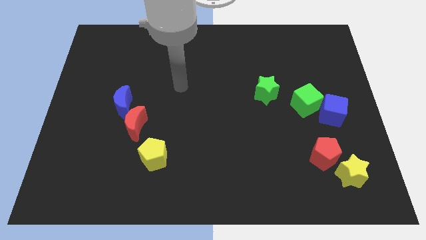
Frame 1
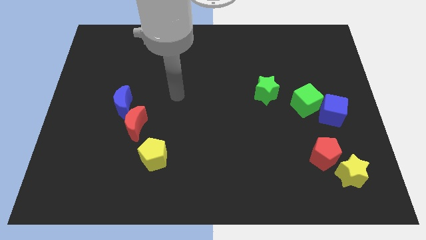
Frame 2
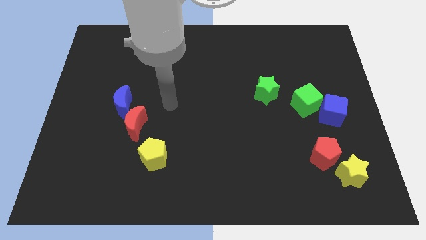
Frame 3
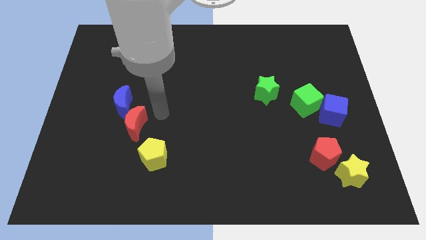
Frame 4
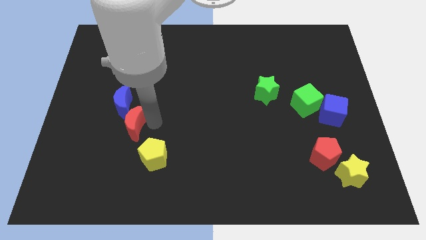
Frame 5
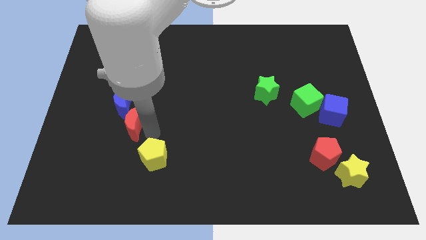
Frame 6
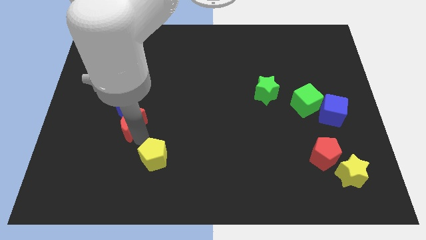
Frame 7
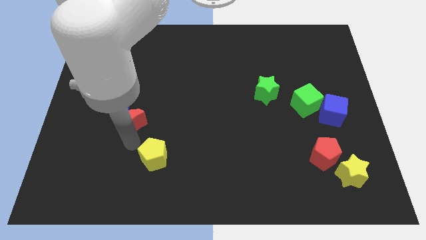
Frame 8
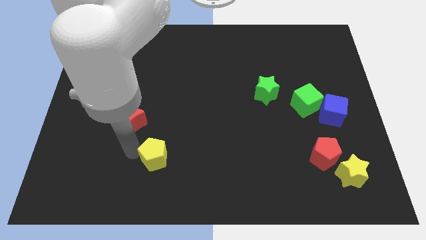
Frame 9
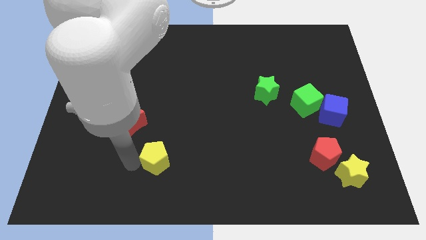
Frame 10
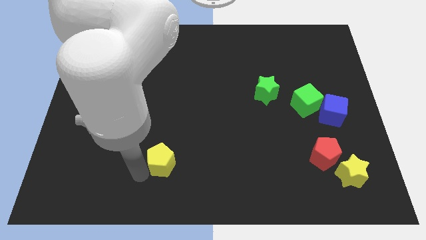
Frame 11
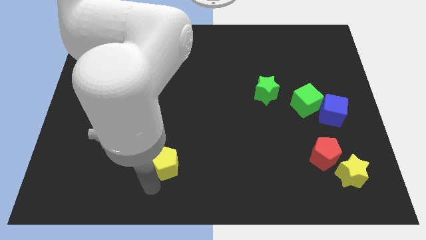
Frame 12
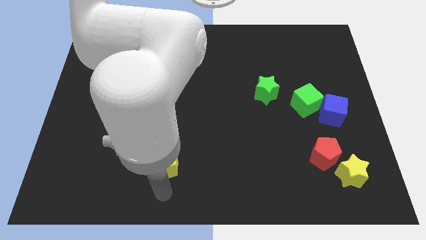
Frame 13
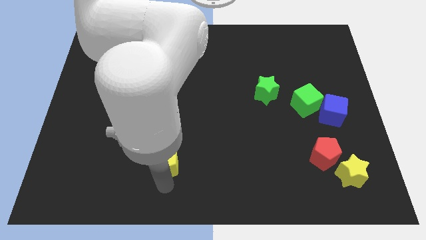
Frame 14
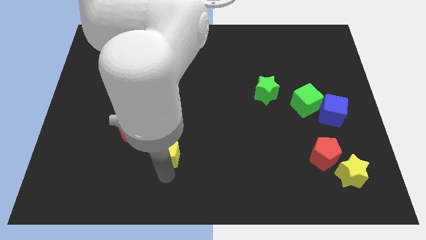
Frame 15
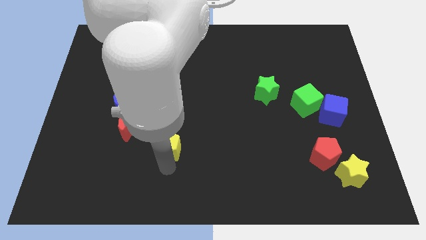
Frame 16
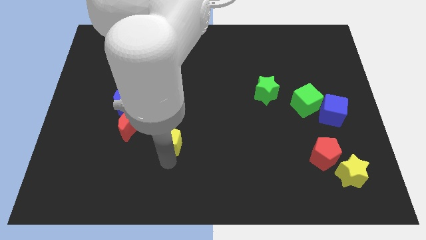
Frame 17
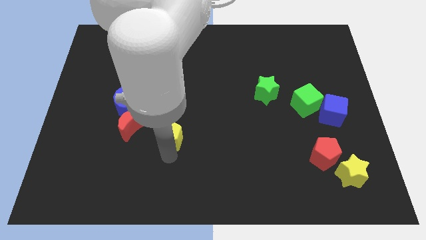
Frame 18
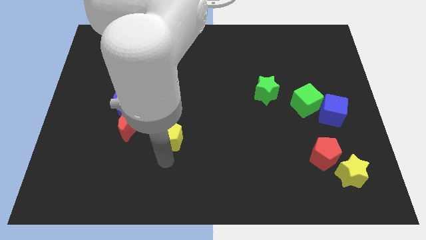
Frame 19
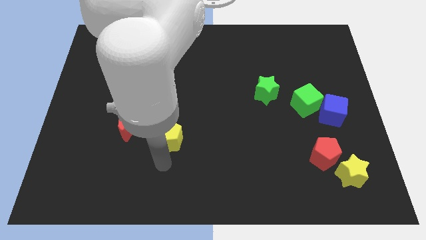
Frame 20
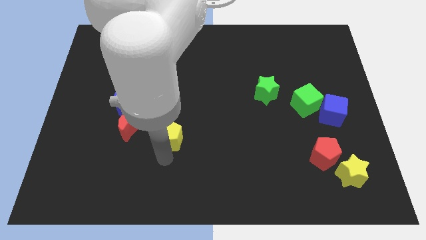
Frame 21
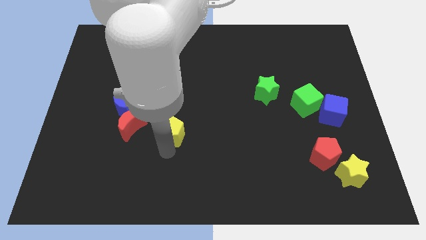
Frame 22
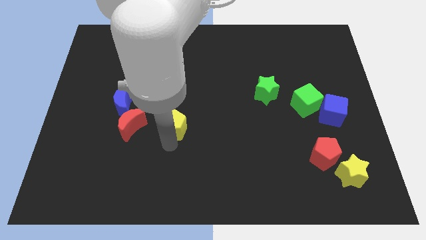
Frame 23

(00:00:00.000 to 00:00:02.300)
push the yellow pentagon slightly up

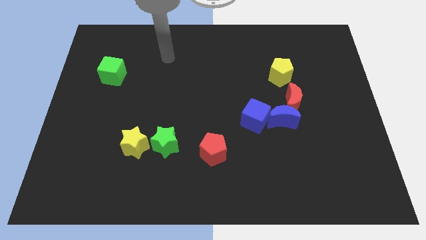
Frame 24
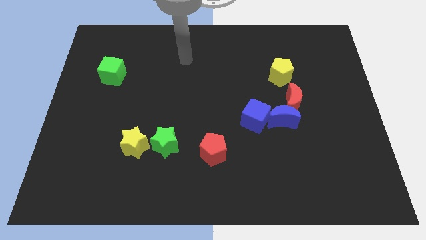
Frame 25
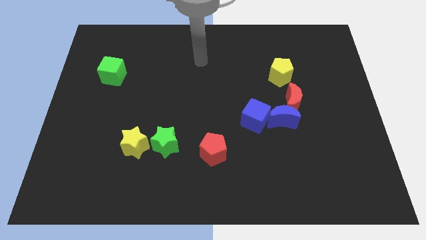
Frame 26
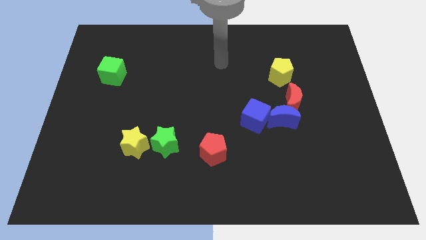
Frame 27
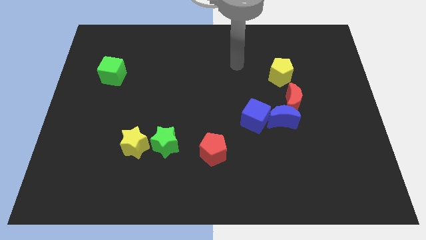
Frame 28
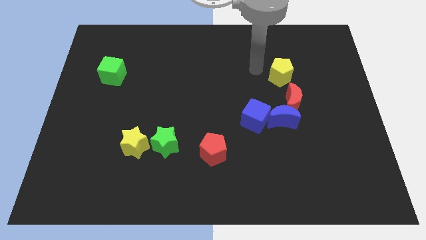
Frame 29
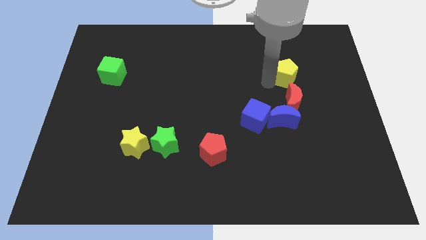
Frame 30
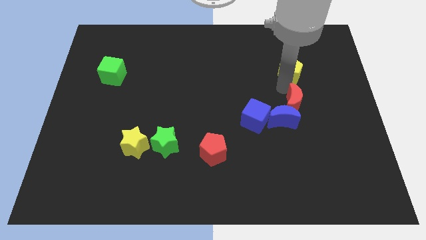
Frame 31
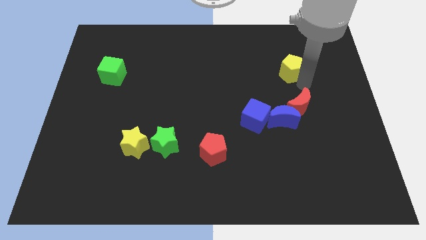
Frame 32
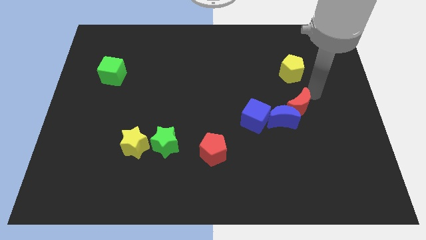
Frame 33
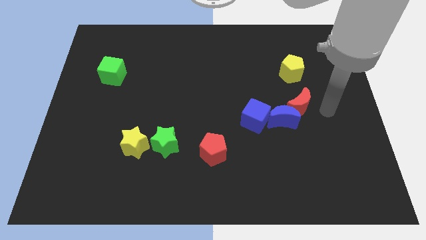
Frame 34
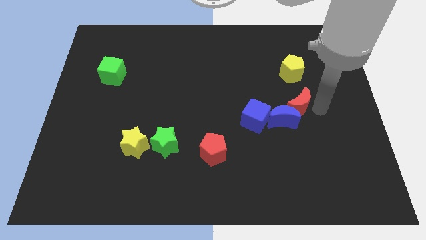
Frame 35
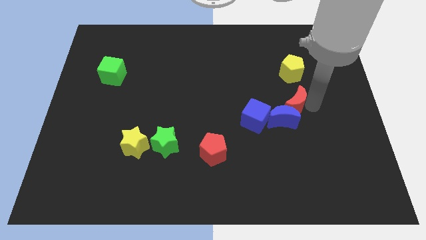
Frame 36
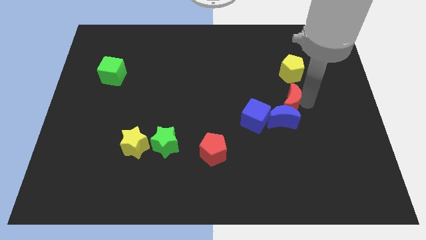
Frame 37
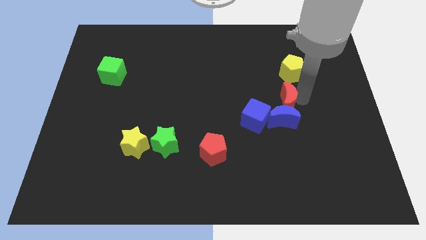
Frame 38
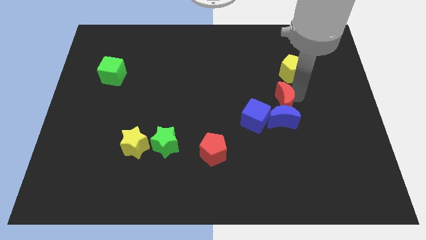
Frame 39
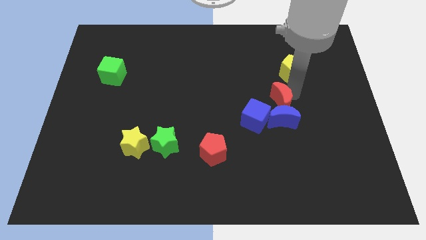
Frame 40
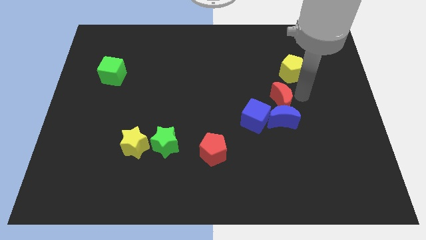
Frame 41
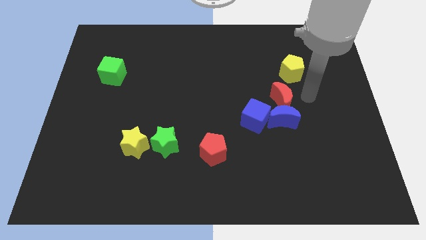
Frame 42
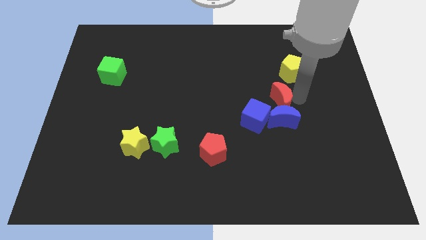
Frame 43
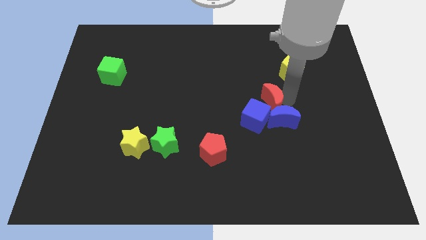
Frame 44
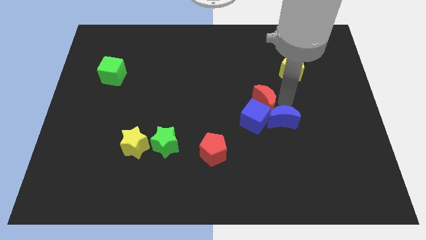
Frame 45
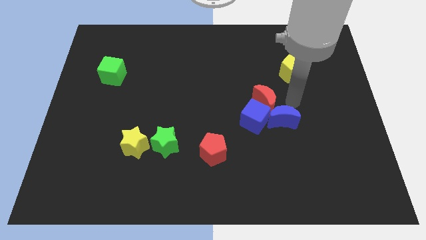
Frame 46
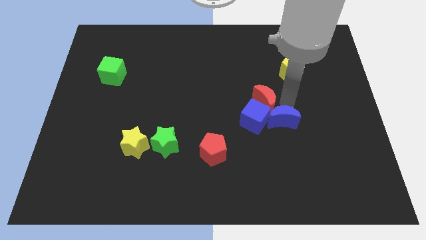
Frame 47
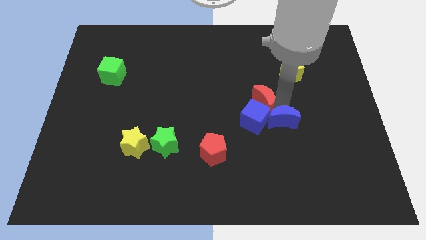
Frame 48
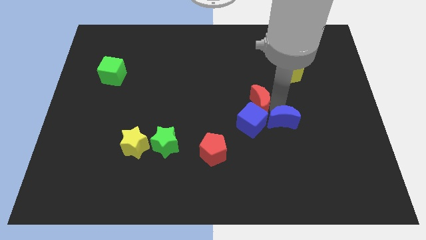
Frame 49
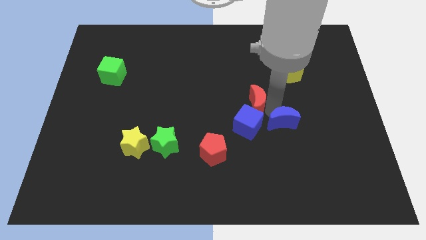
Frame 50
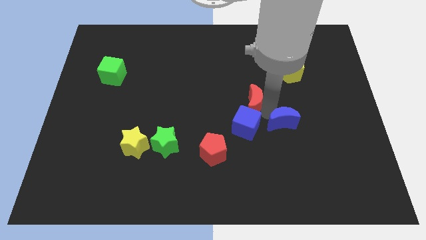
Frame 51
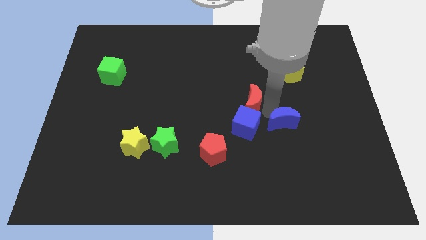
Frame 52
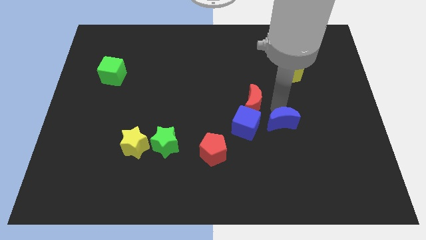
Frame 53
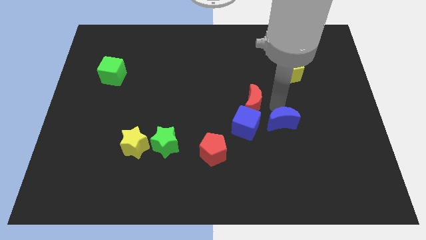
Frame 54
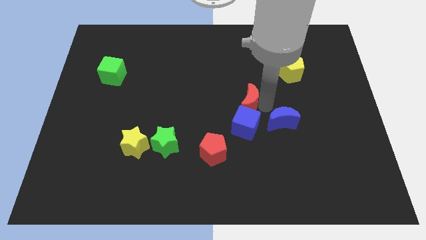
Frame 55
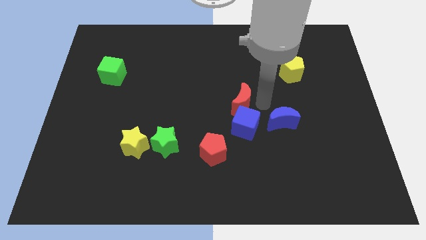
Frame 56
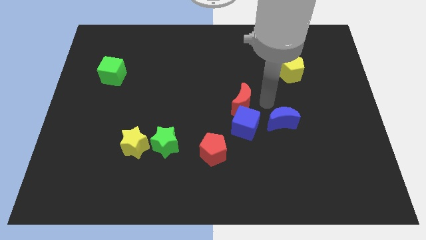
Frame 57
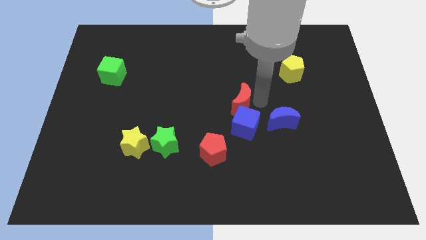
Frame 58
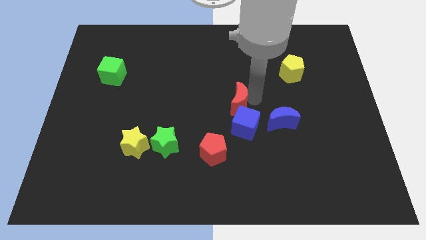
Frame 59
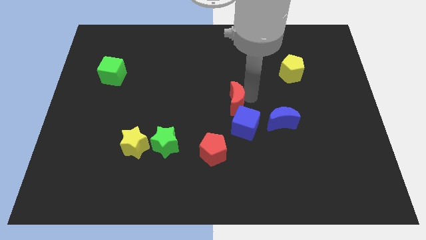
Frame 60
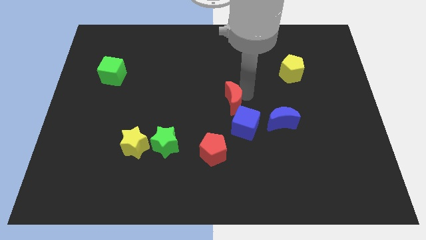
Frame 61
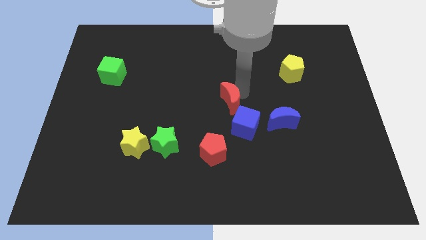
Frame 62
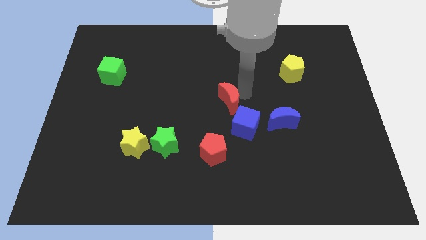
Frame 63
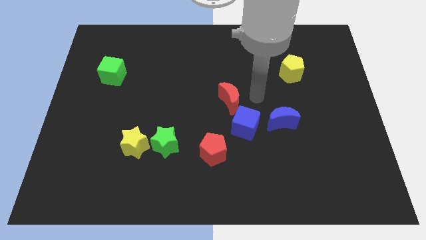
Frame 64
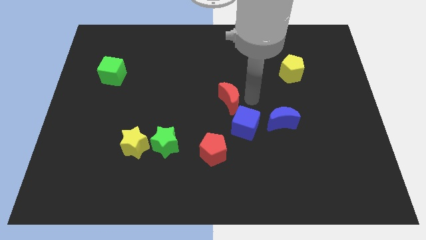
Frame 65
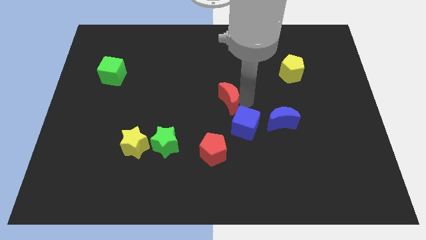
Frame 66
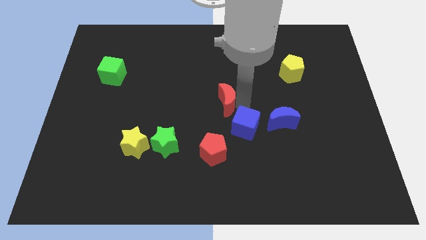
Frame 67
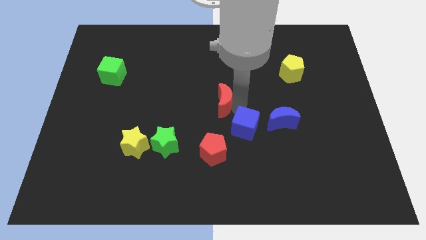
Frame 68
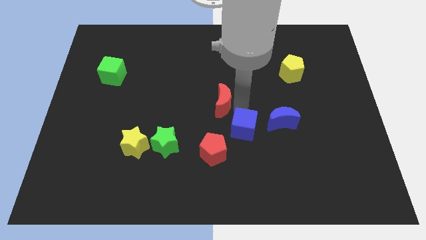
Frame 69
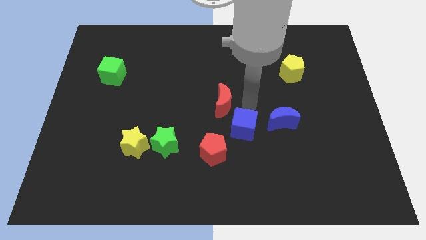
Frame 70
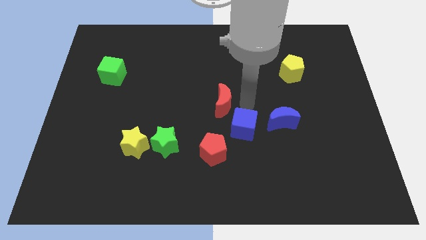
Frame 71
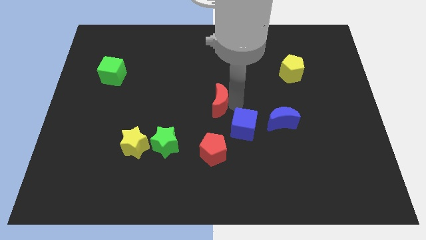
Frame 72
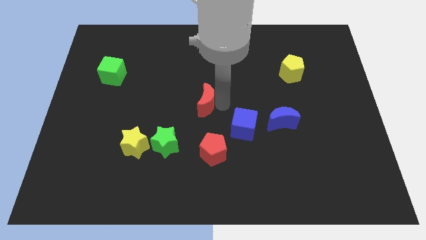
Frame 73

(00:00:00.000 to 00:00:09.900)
move the red moon to the left

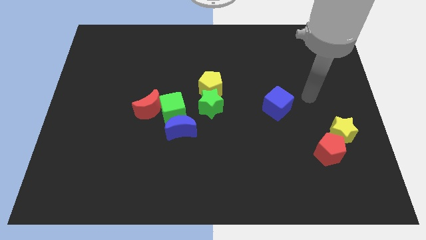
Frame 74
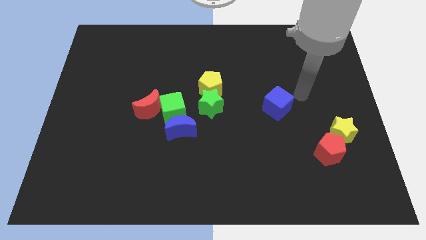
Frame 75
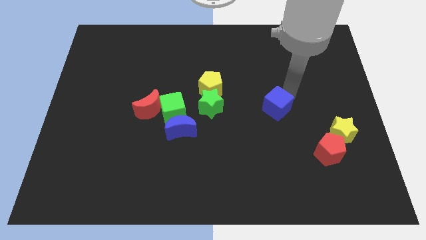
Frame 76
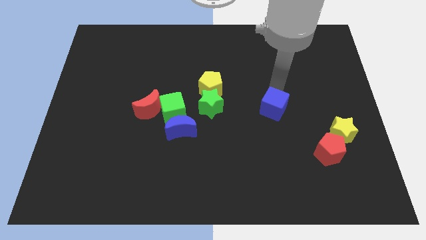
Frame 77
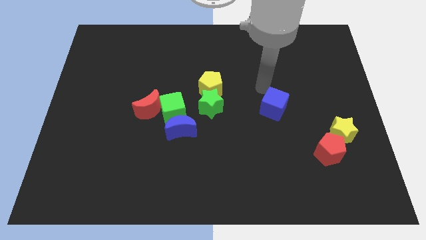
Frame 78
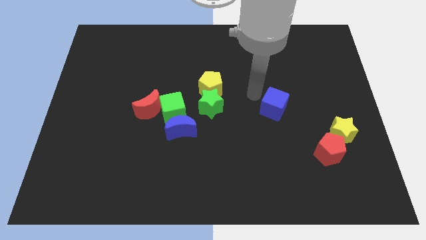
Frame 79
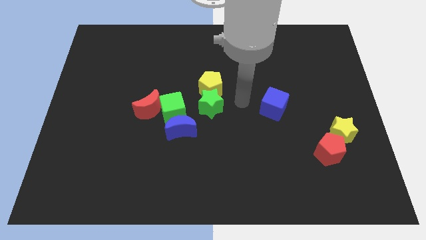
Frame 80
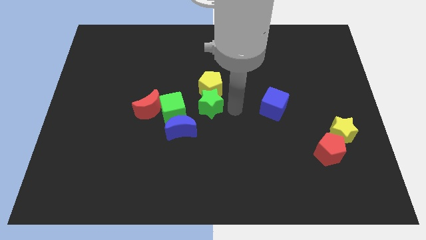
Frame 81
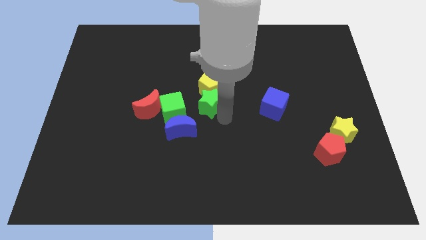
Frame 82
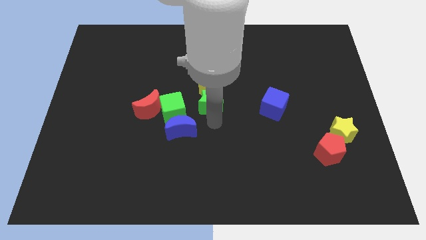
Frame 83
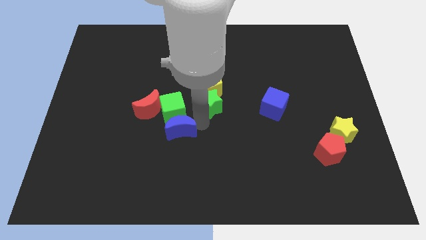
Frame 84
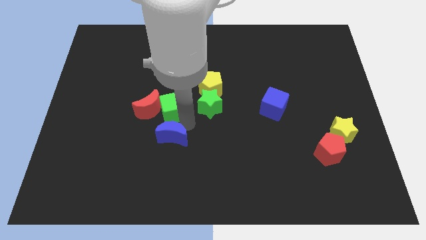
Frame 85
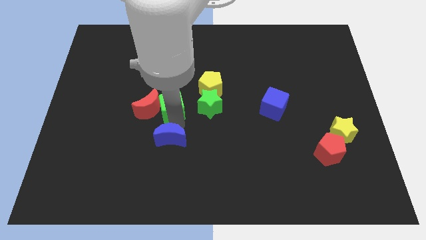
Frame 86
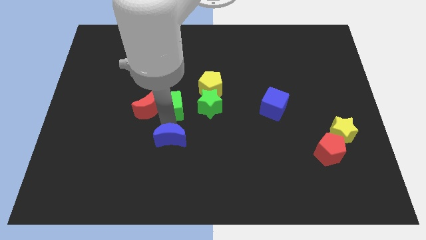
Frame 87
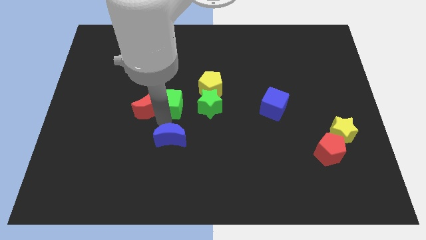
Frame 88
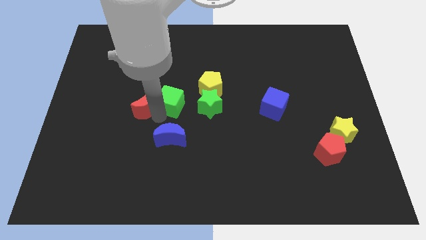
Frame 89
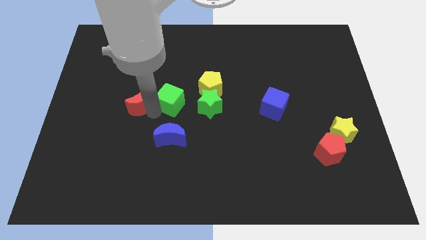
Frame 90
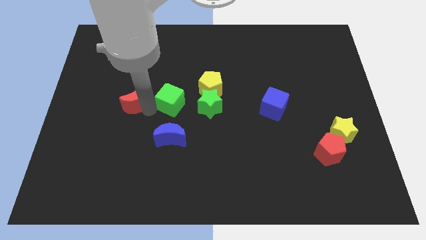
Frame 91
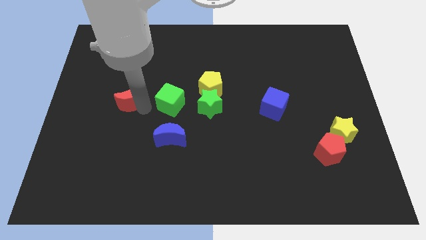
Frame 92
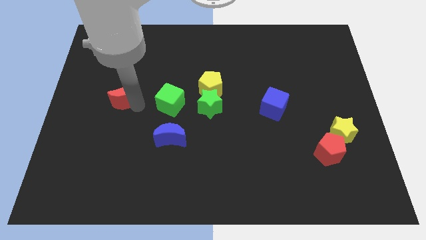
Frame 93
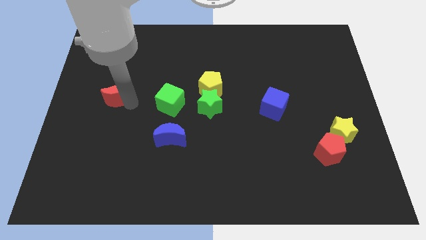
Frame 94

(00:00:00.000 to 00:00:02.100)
push the red moon a little up and to the left
